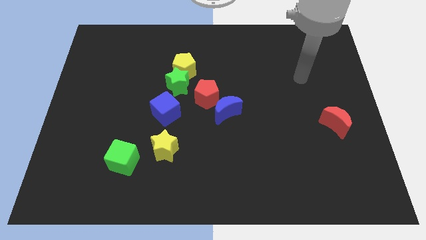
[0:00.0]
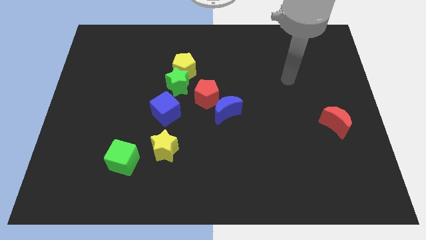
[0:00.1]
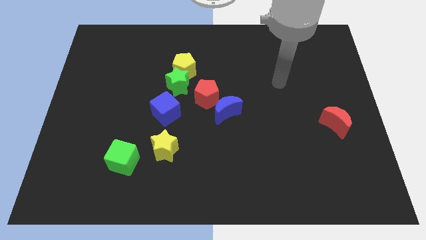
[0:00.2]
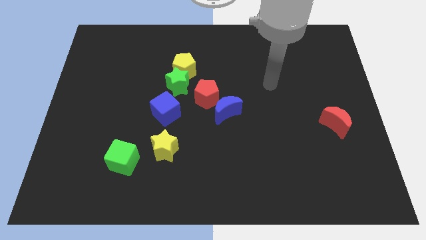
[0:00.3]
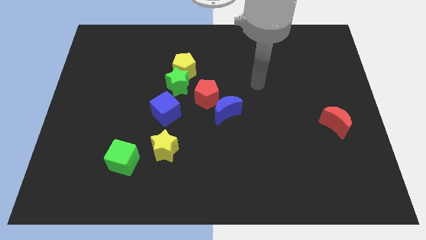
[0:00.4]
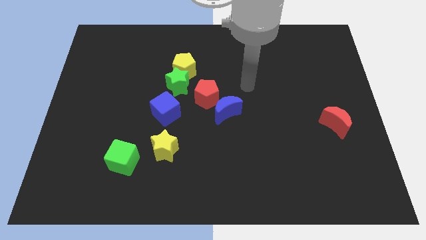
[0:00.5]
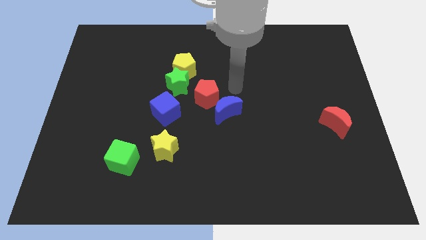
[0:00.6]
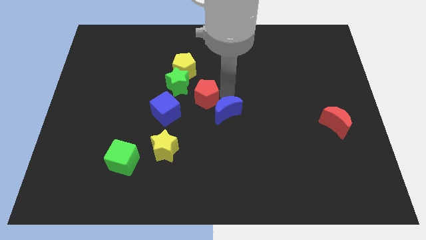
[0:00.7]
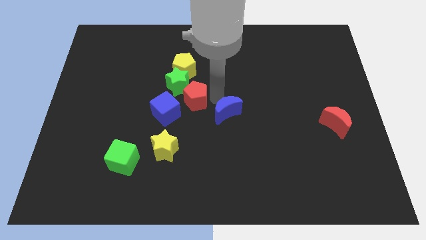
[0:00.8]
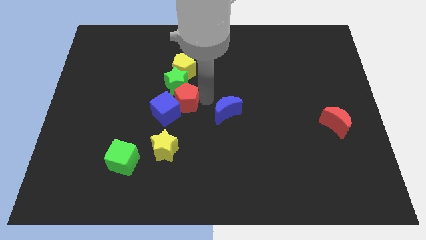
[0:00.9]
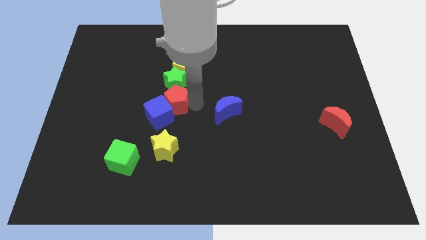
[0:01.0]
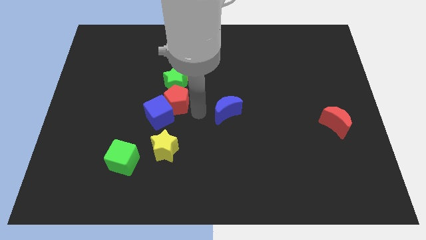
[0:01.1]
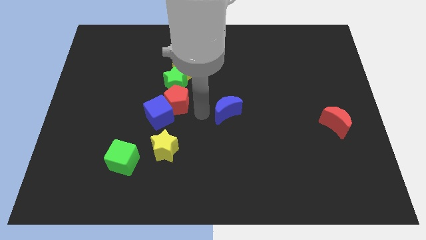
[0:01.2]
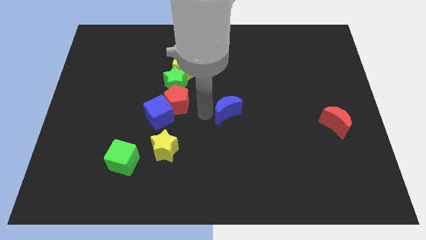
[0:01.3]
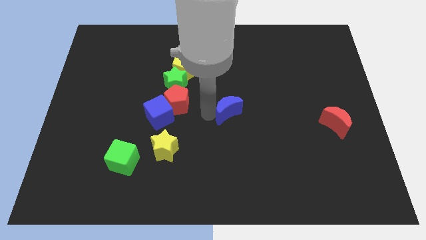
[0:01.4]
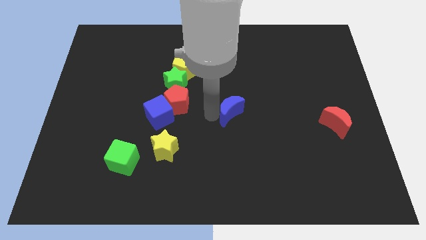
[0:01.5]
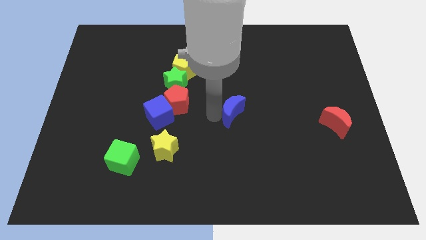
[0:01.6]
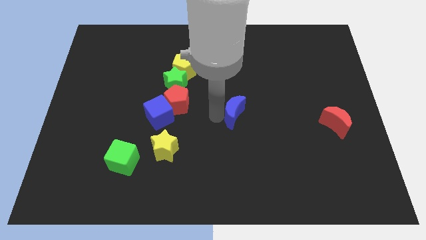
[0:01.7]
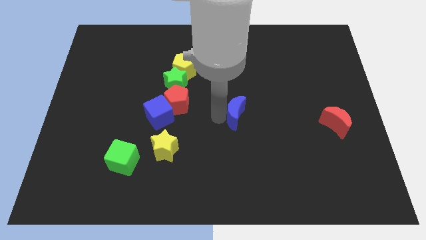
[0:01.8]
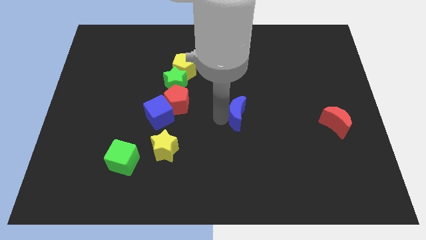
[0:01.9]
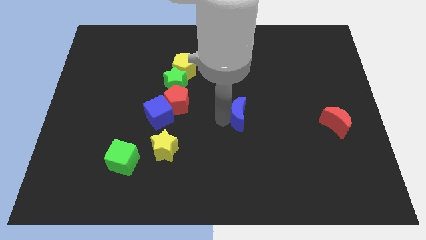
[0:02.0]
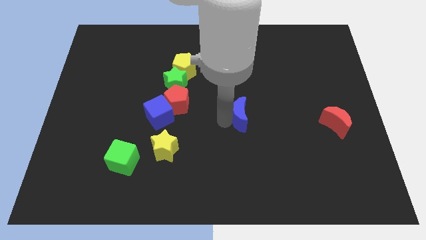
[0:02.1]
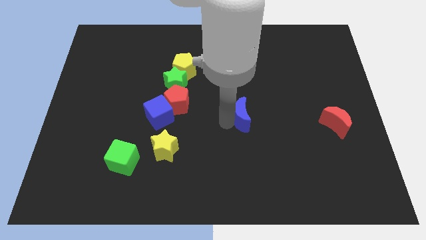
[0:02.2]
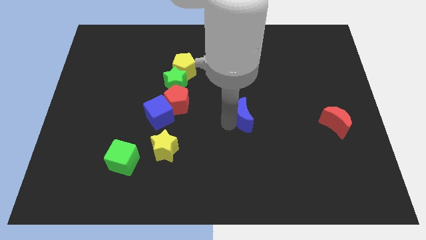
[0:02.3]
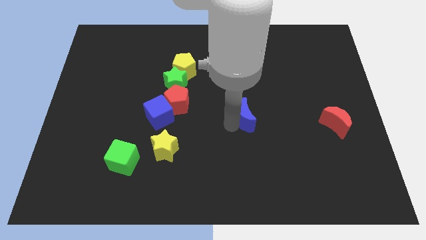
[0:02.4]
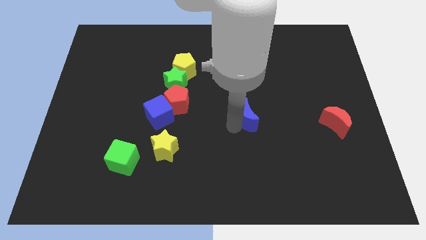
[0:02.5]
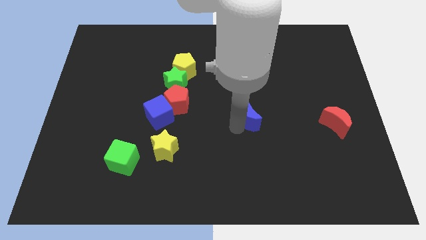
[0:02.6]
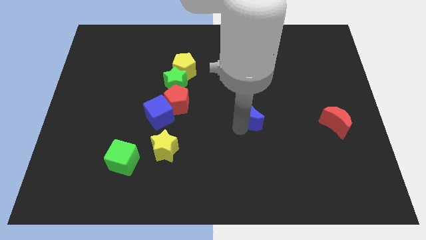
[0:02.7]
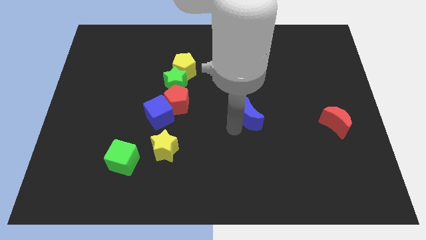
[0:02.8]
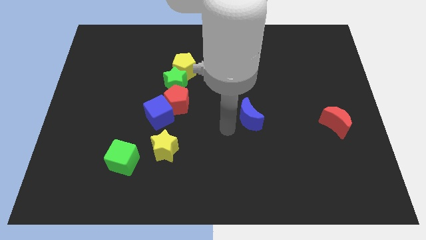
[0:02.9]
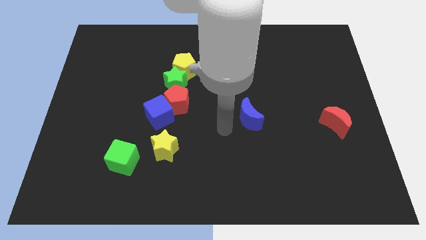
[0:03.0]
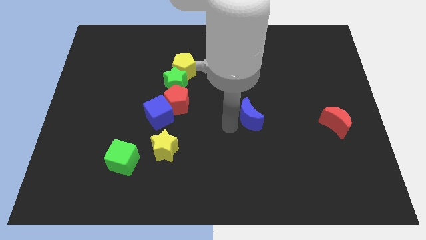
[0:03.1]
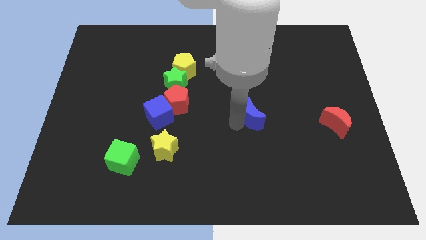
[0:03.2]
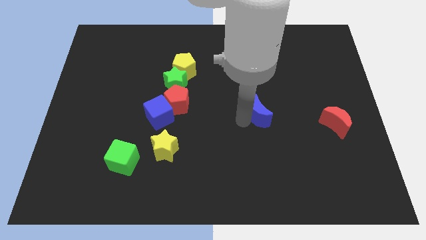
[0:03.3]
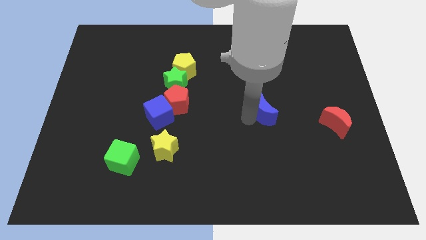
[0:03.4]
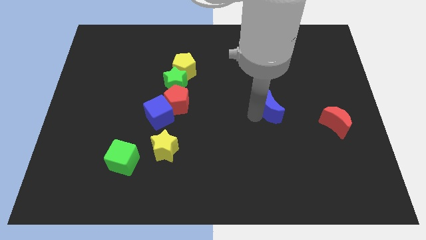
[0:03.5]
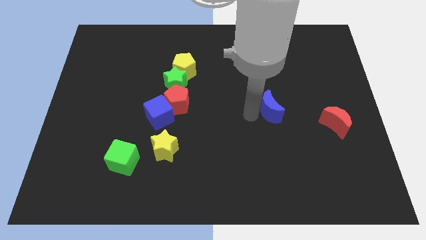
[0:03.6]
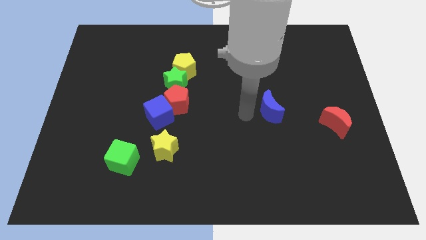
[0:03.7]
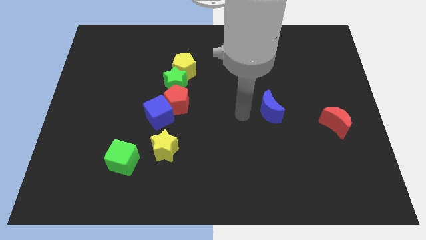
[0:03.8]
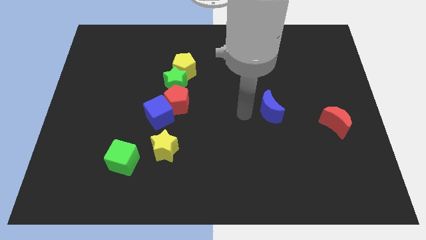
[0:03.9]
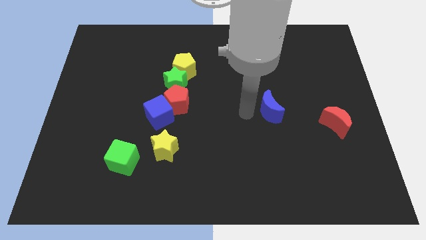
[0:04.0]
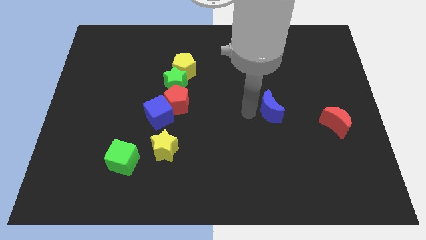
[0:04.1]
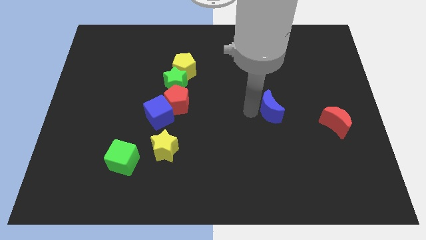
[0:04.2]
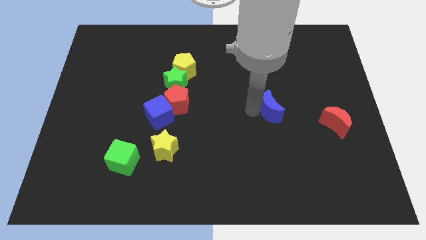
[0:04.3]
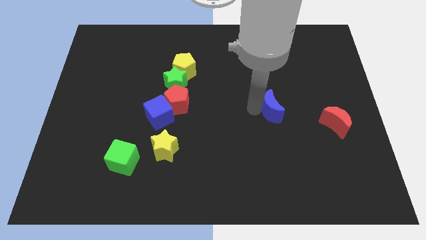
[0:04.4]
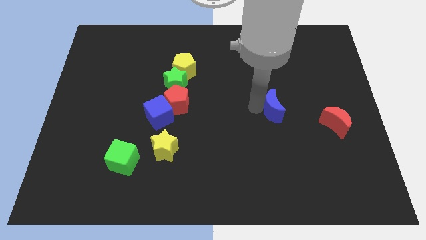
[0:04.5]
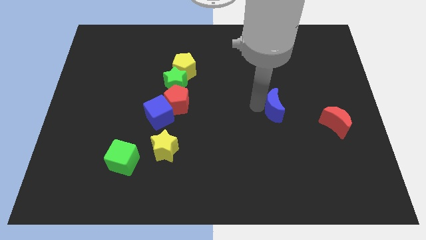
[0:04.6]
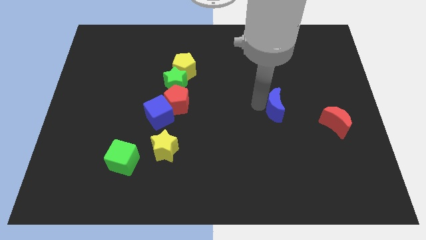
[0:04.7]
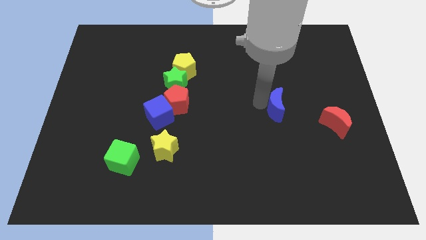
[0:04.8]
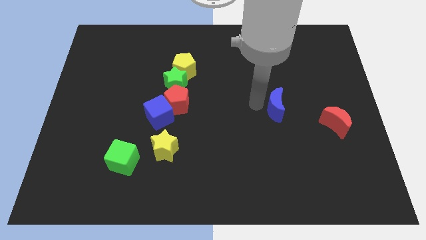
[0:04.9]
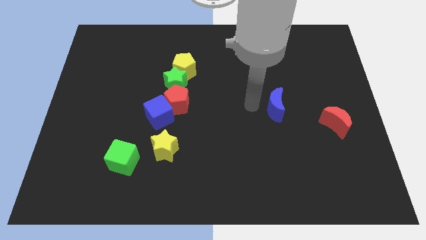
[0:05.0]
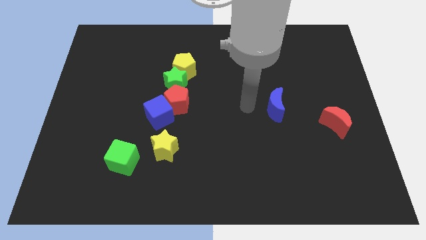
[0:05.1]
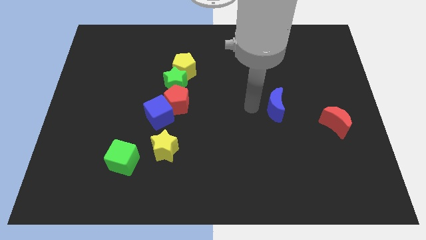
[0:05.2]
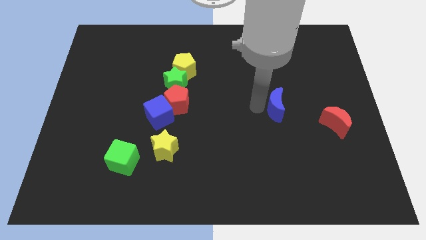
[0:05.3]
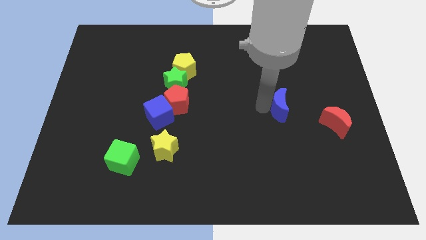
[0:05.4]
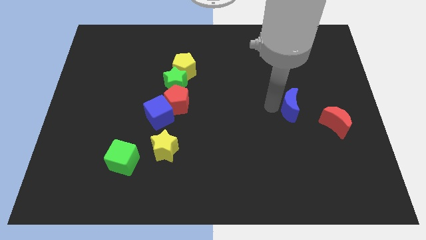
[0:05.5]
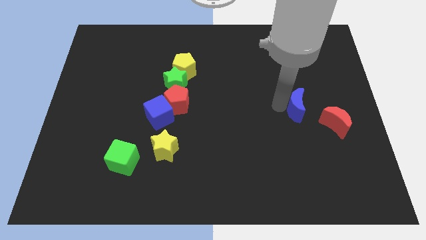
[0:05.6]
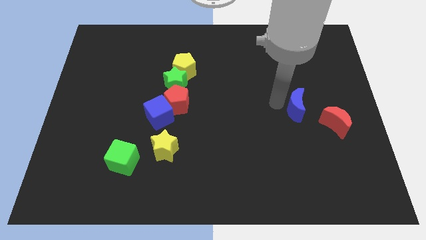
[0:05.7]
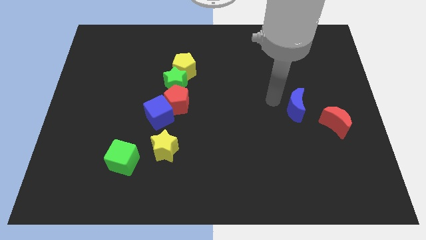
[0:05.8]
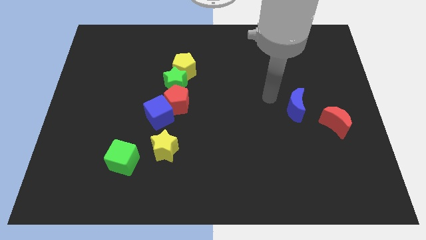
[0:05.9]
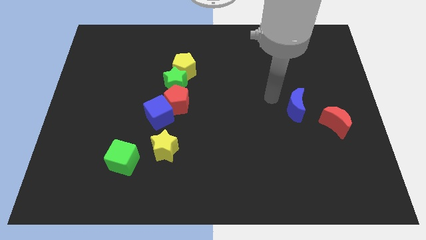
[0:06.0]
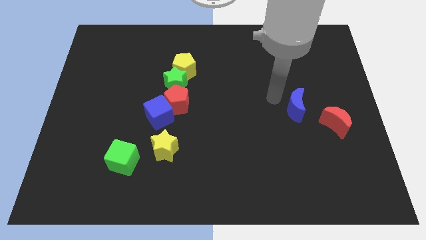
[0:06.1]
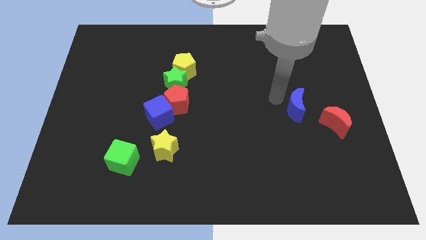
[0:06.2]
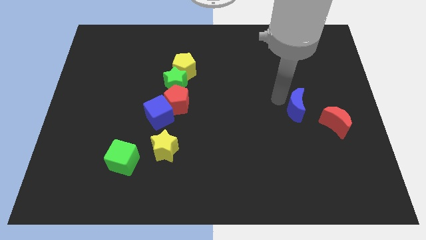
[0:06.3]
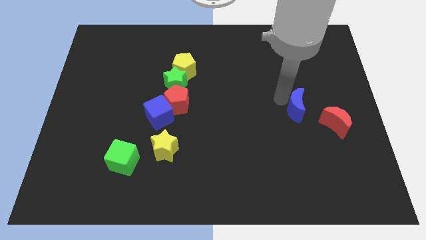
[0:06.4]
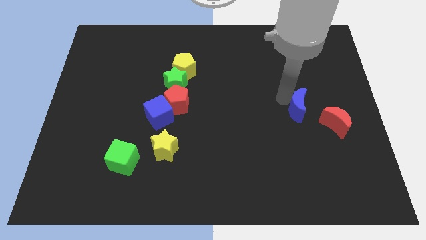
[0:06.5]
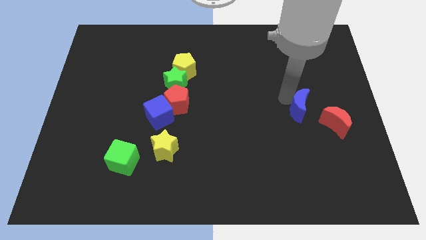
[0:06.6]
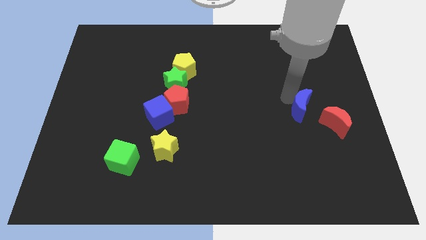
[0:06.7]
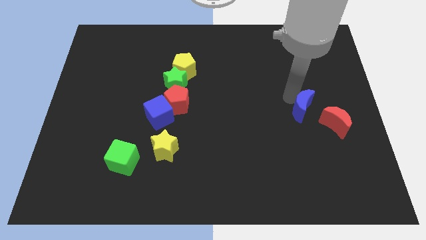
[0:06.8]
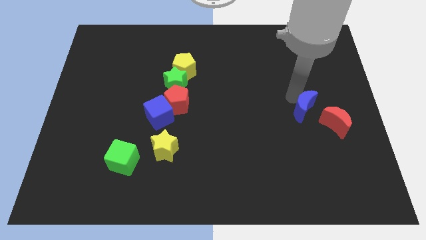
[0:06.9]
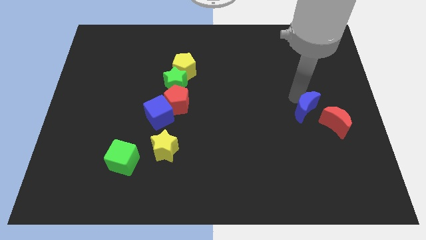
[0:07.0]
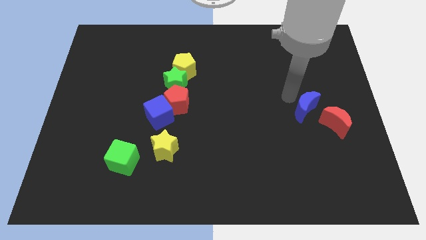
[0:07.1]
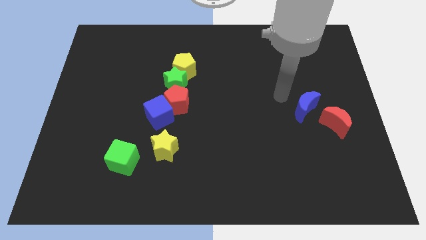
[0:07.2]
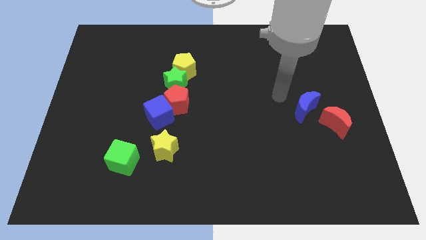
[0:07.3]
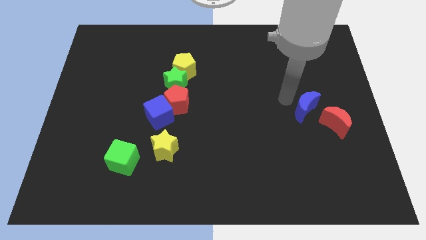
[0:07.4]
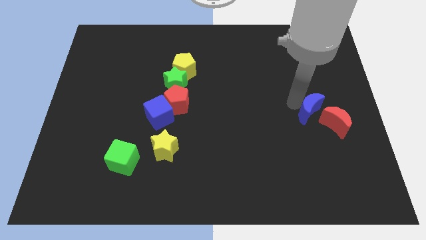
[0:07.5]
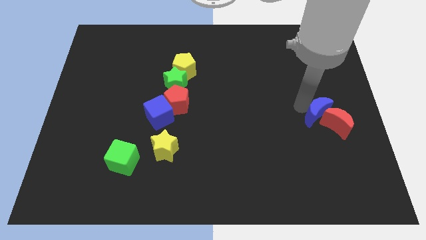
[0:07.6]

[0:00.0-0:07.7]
push the blue moon next to the red moon
